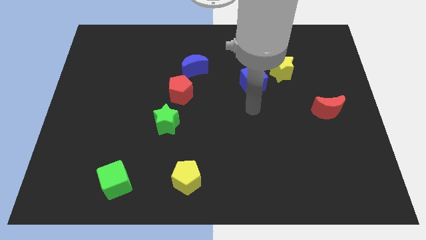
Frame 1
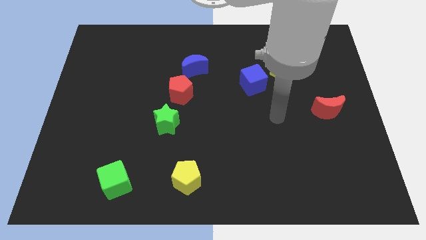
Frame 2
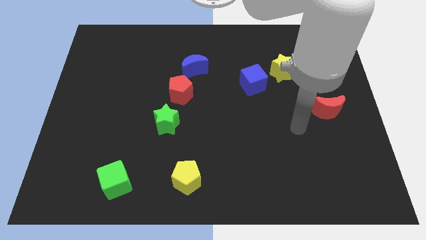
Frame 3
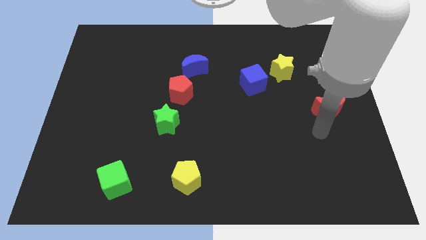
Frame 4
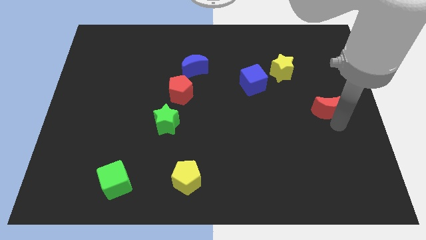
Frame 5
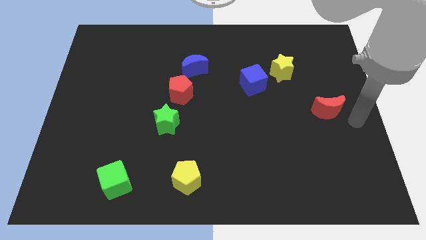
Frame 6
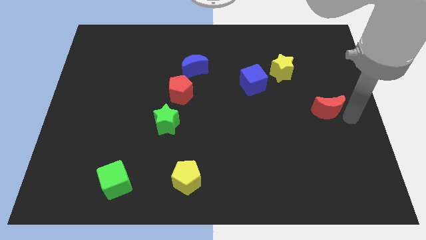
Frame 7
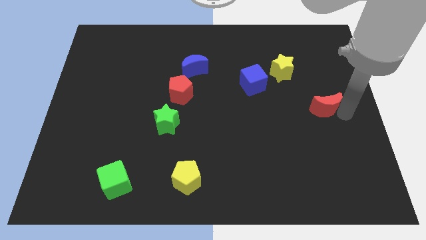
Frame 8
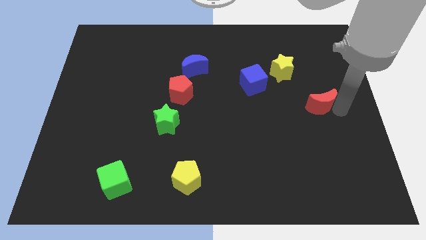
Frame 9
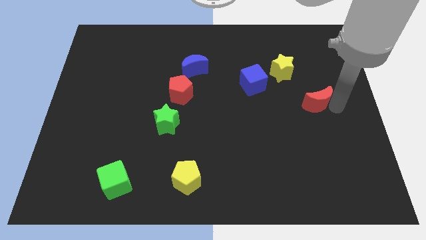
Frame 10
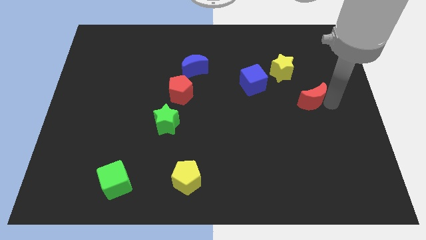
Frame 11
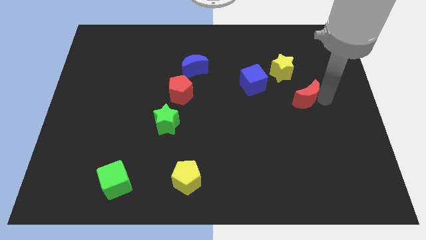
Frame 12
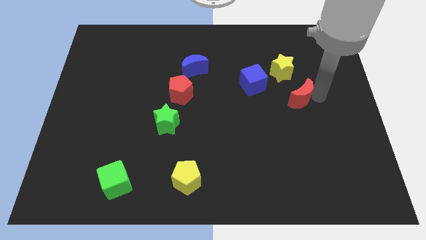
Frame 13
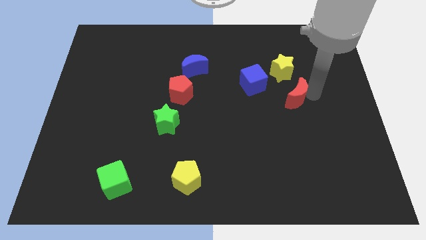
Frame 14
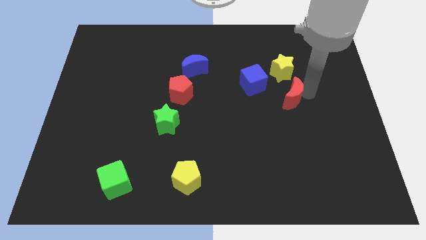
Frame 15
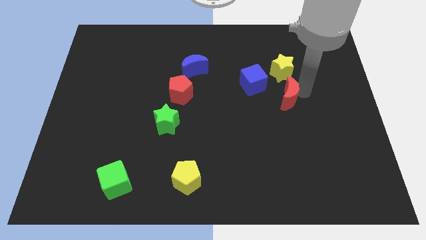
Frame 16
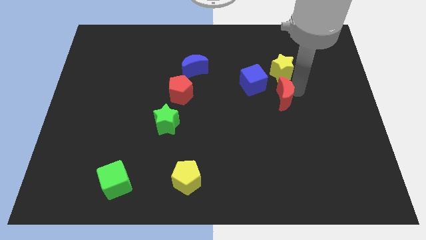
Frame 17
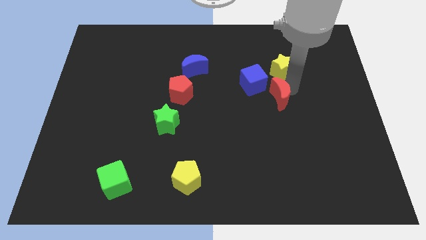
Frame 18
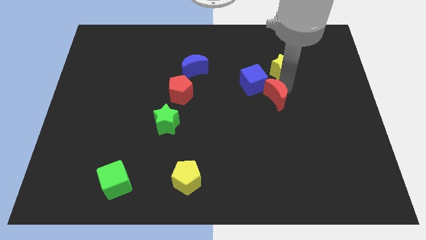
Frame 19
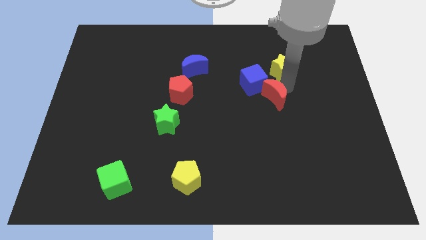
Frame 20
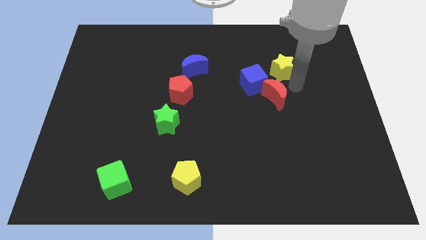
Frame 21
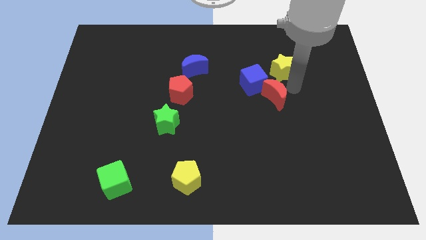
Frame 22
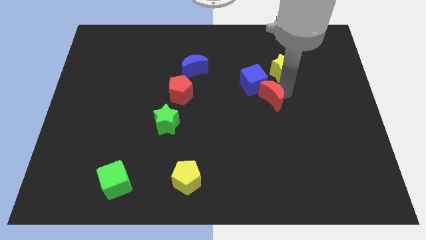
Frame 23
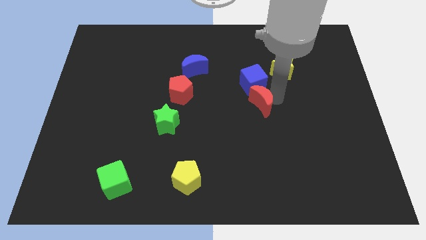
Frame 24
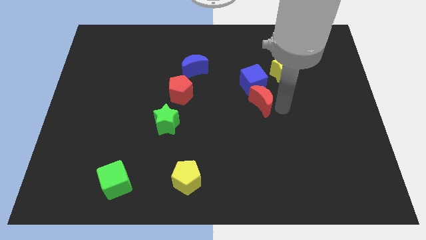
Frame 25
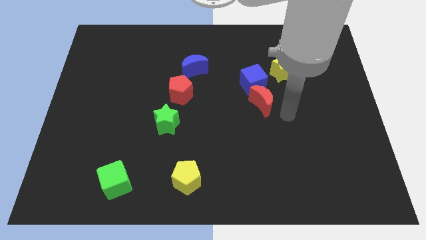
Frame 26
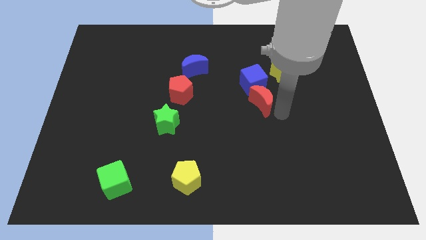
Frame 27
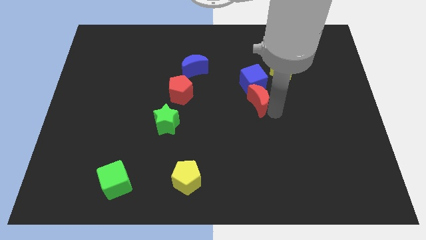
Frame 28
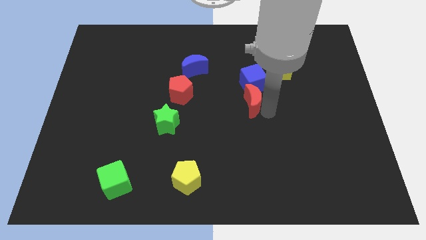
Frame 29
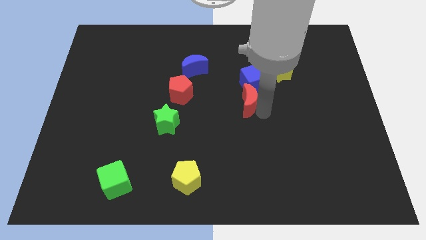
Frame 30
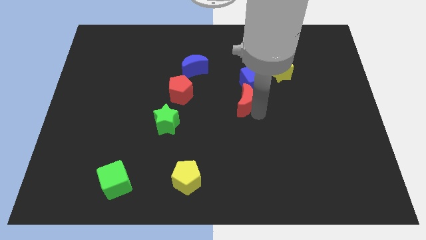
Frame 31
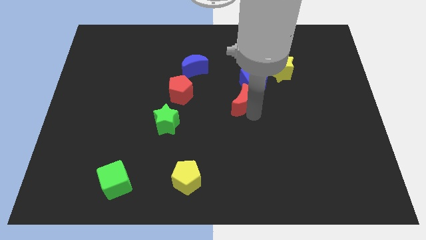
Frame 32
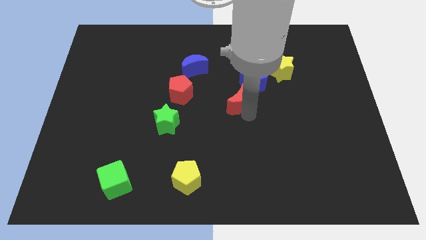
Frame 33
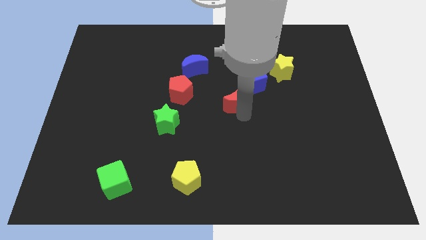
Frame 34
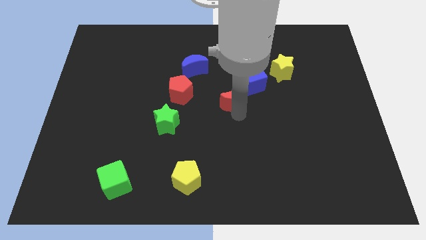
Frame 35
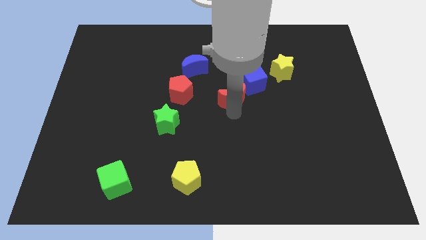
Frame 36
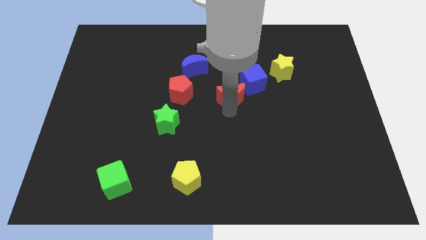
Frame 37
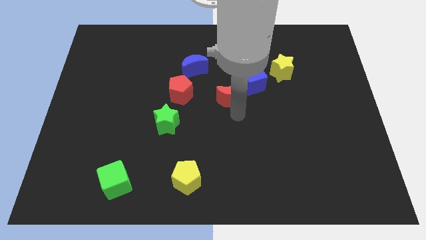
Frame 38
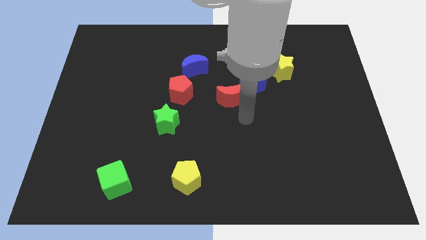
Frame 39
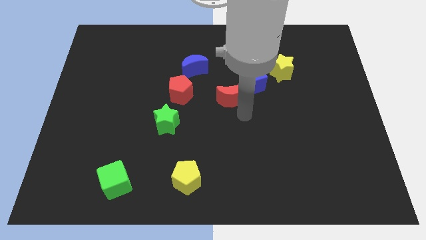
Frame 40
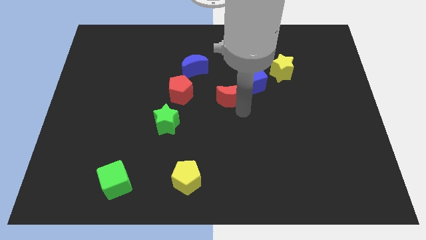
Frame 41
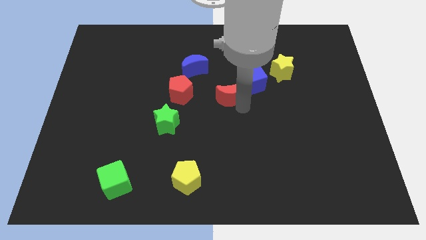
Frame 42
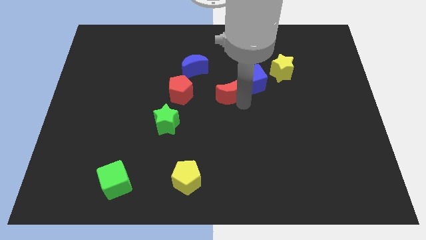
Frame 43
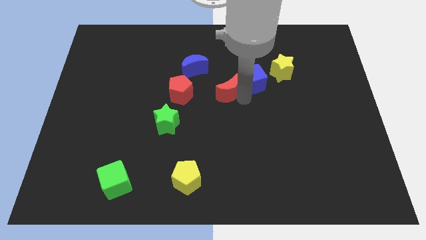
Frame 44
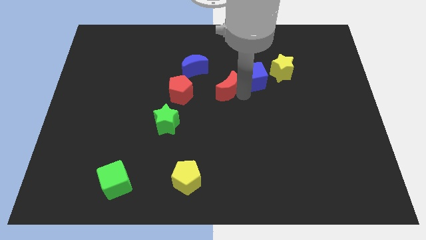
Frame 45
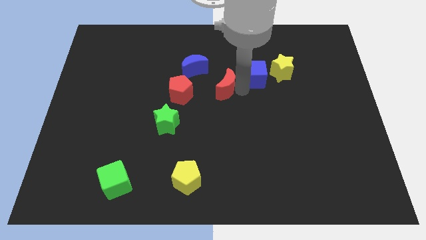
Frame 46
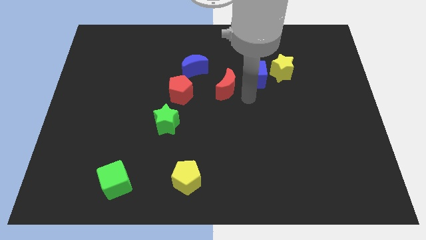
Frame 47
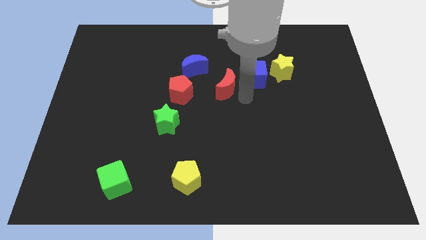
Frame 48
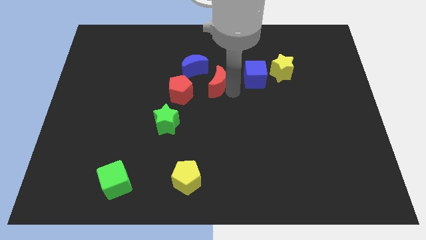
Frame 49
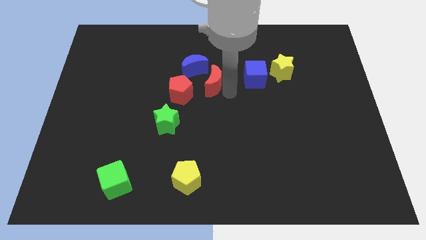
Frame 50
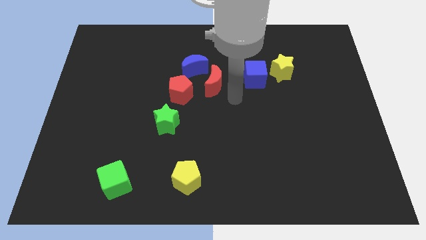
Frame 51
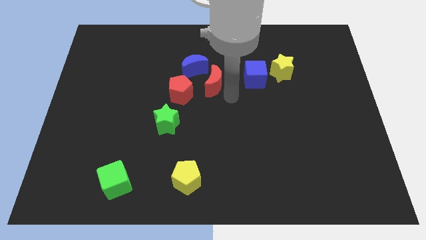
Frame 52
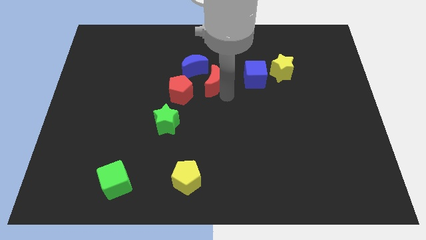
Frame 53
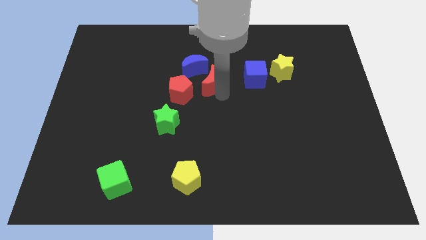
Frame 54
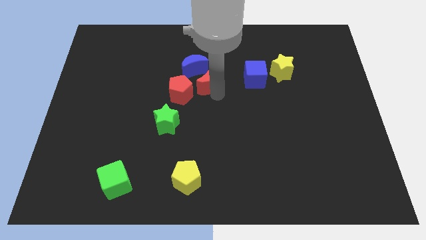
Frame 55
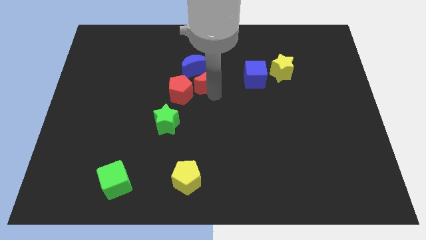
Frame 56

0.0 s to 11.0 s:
slide the red moon close to the blue moon
